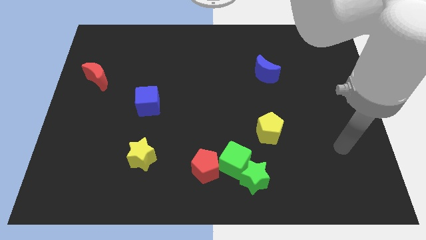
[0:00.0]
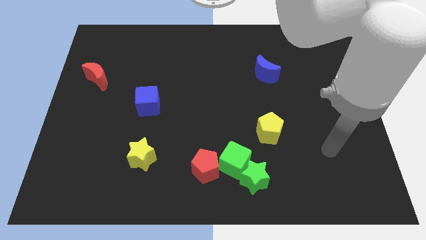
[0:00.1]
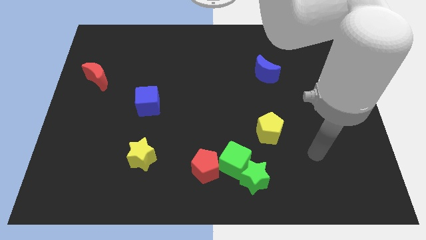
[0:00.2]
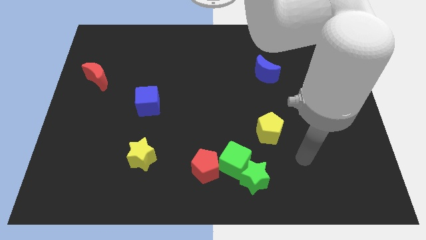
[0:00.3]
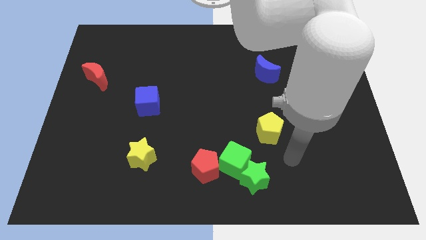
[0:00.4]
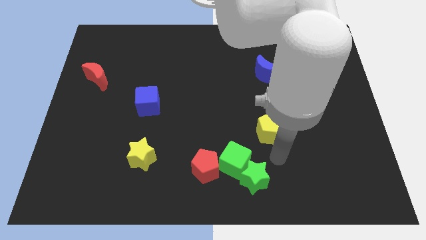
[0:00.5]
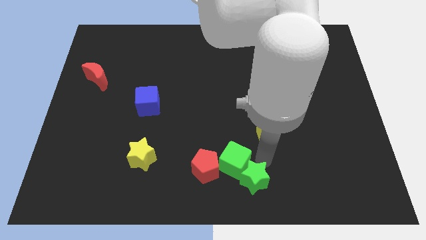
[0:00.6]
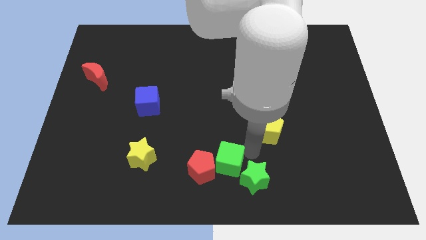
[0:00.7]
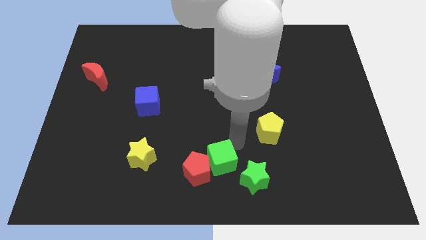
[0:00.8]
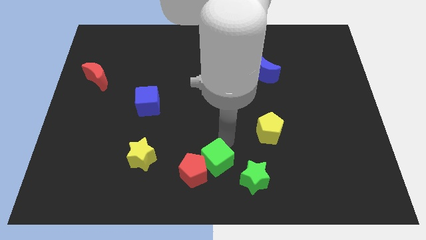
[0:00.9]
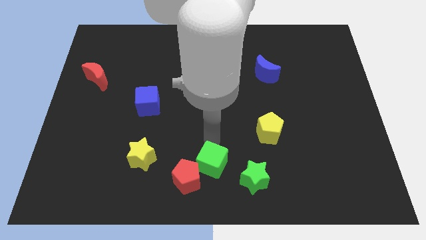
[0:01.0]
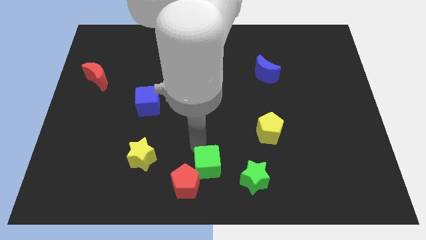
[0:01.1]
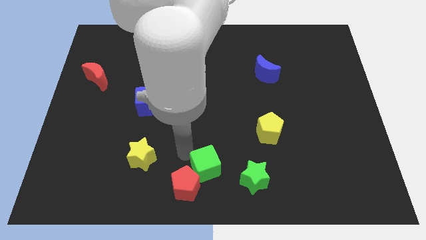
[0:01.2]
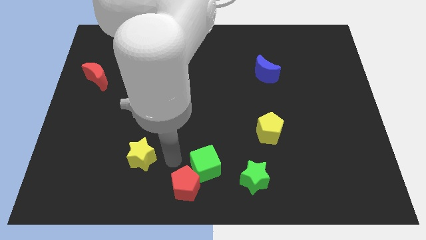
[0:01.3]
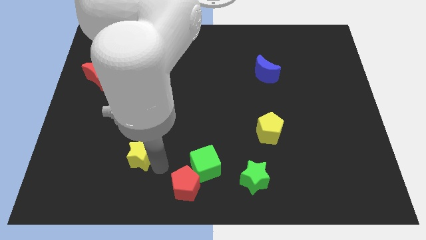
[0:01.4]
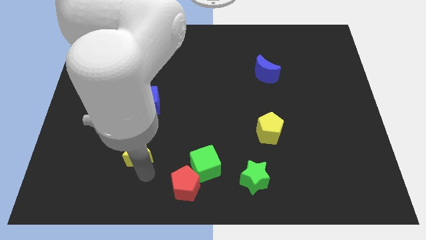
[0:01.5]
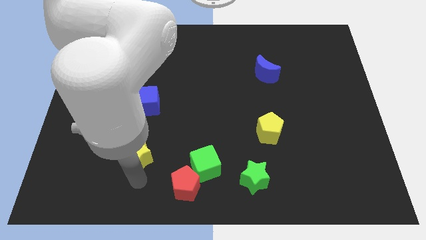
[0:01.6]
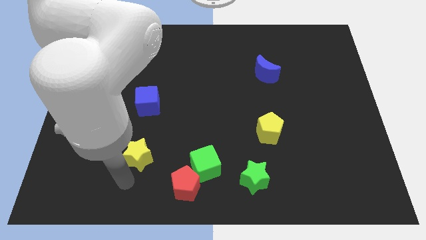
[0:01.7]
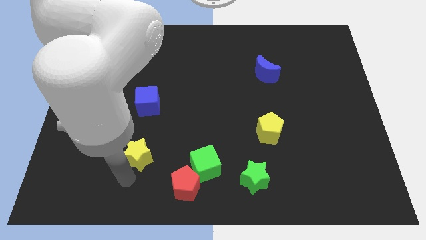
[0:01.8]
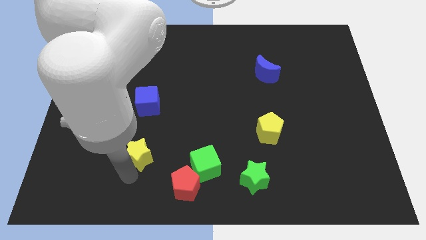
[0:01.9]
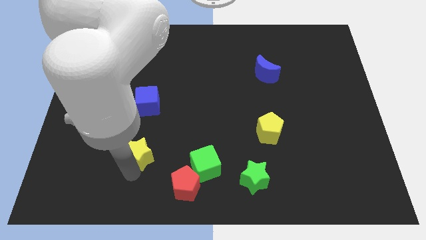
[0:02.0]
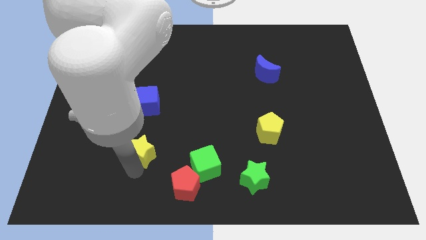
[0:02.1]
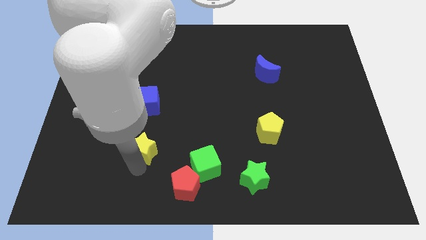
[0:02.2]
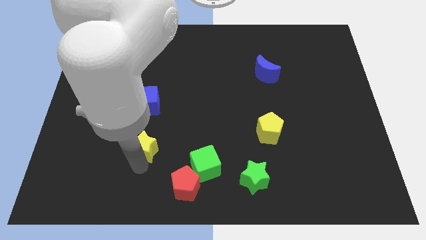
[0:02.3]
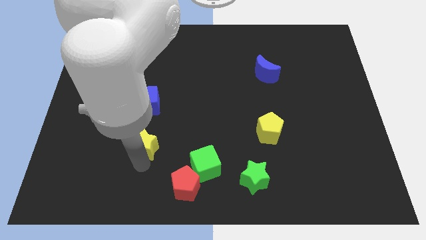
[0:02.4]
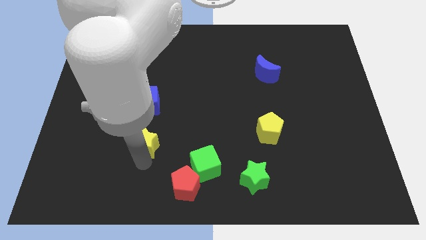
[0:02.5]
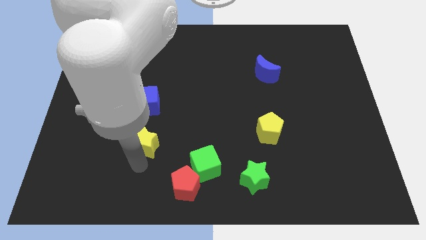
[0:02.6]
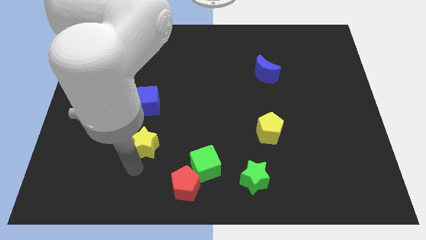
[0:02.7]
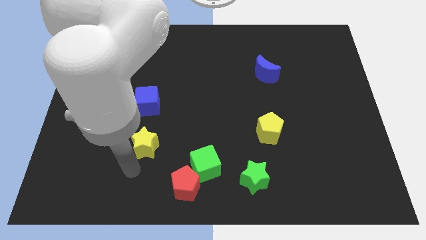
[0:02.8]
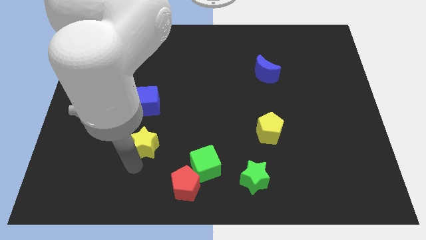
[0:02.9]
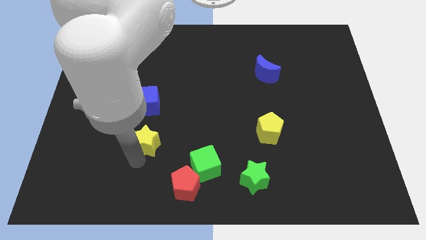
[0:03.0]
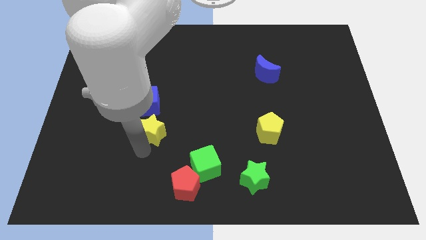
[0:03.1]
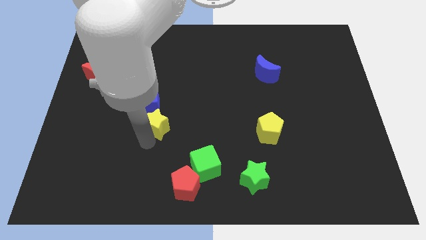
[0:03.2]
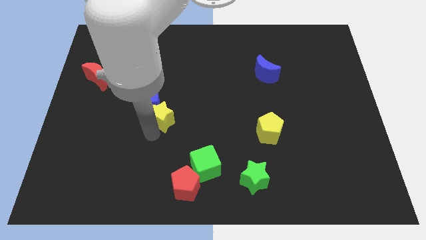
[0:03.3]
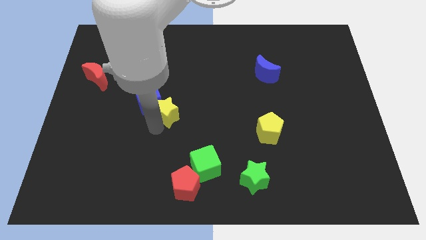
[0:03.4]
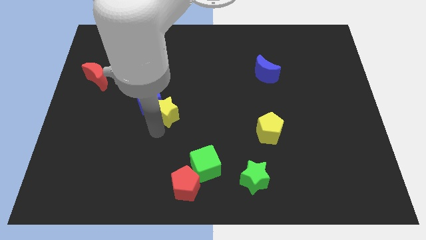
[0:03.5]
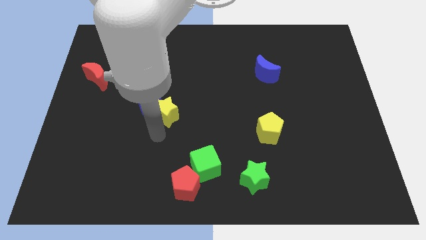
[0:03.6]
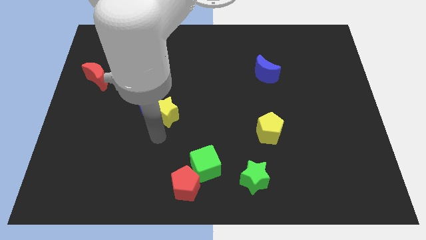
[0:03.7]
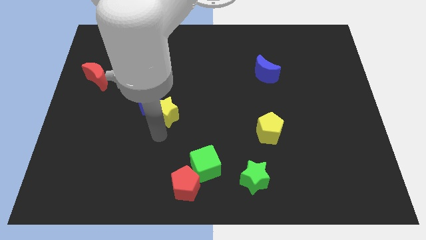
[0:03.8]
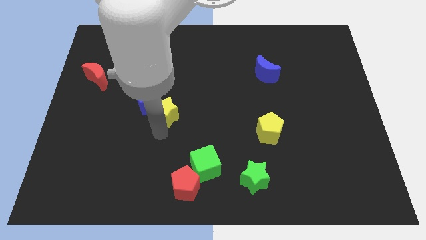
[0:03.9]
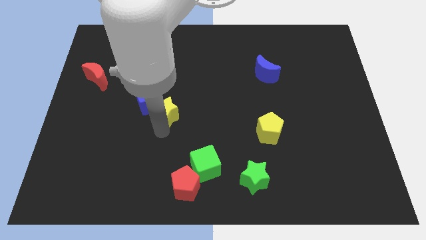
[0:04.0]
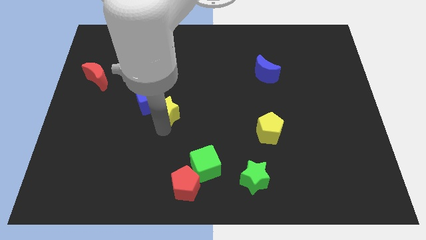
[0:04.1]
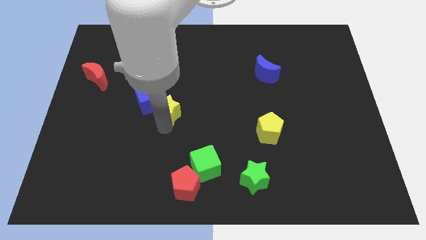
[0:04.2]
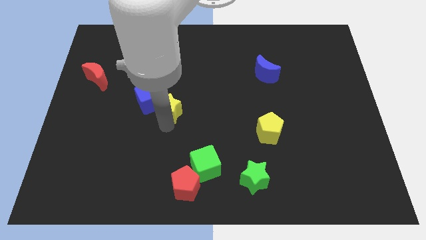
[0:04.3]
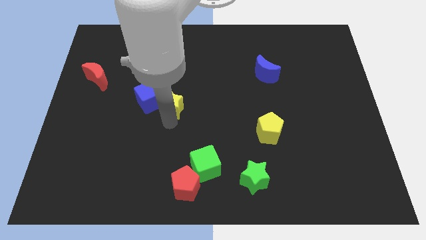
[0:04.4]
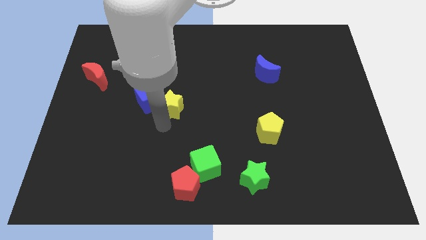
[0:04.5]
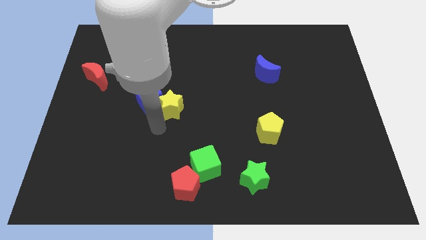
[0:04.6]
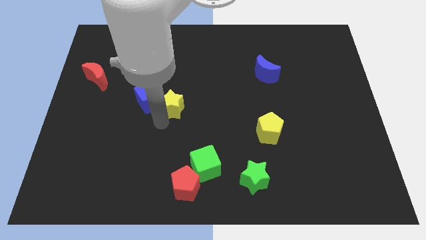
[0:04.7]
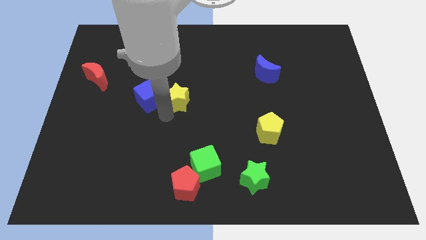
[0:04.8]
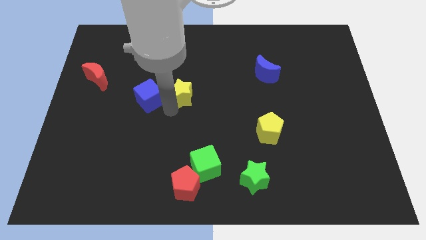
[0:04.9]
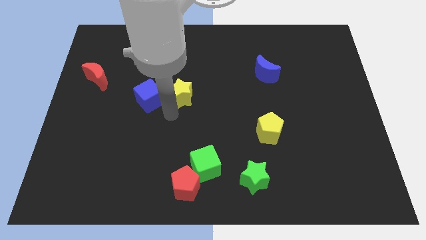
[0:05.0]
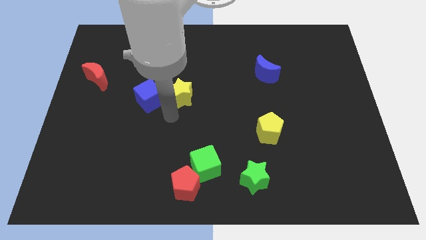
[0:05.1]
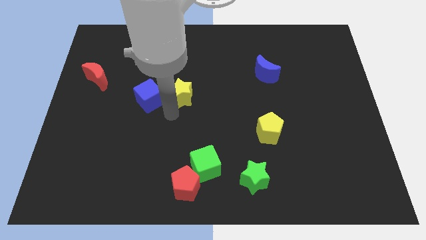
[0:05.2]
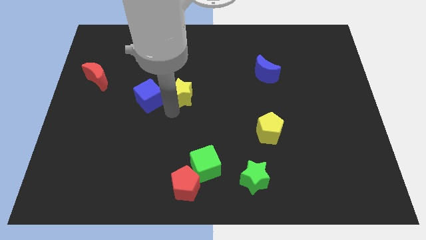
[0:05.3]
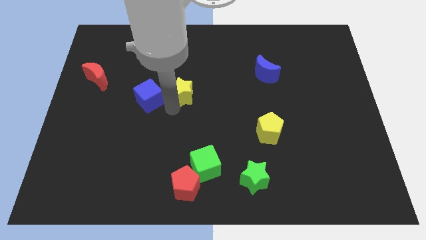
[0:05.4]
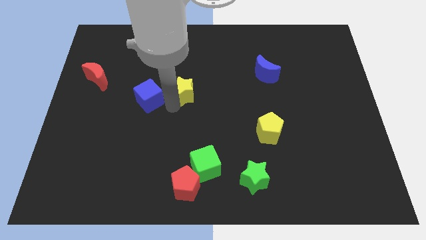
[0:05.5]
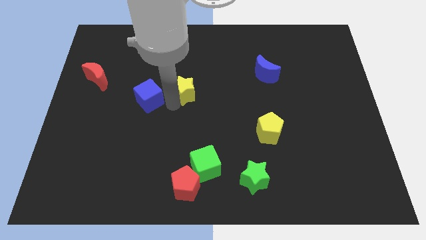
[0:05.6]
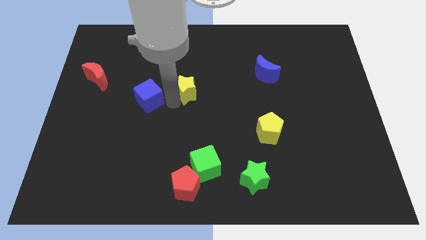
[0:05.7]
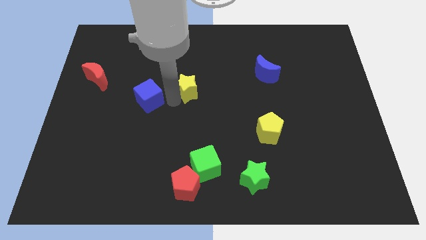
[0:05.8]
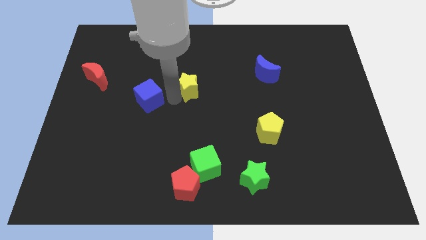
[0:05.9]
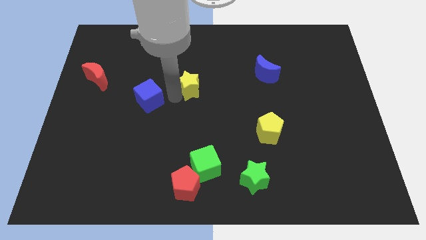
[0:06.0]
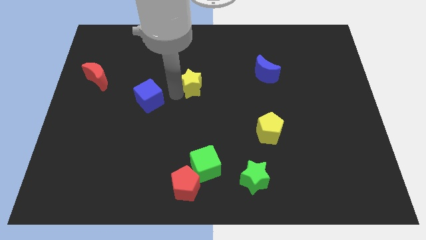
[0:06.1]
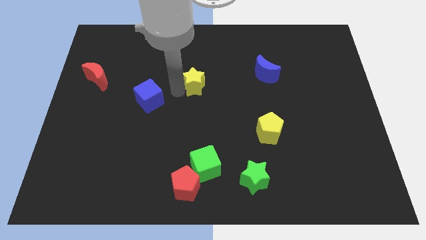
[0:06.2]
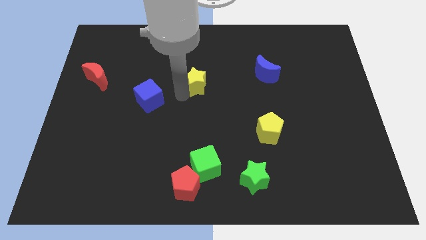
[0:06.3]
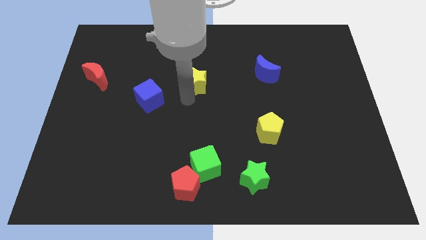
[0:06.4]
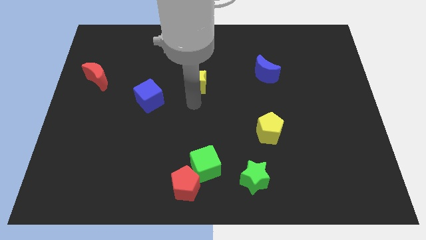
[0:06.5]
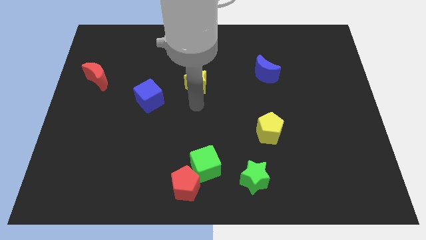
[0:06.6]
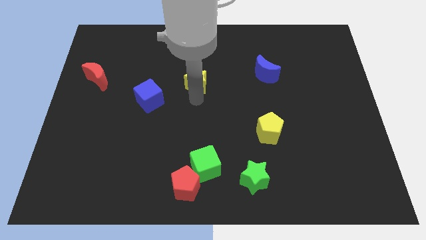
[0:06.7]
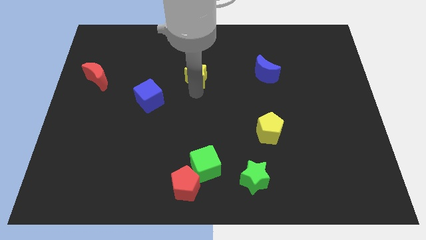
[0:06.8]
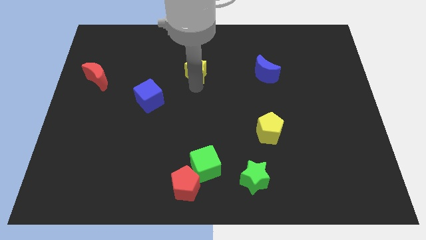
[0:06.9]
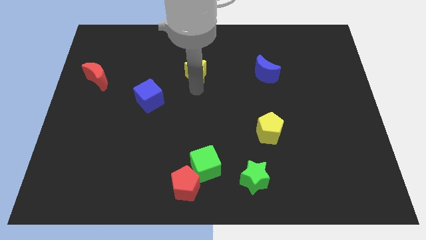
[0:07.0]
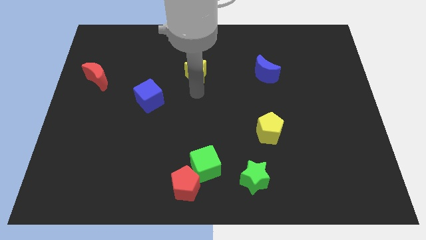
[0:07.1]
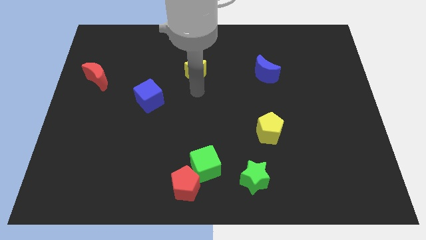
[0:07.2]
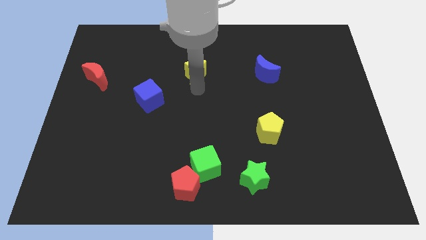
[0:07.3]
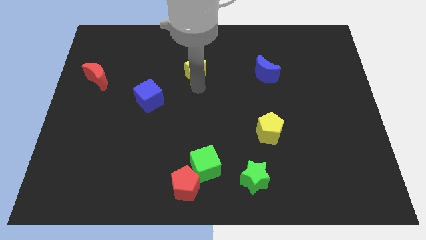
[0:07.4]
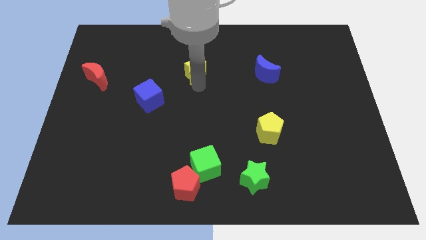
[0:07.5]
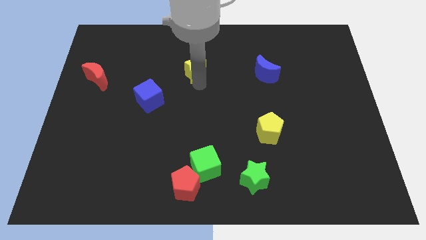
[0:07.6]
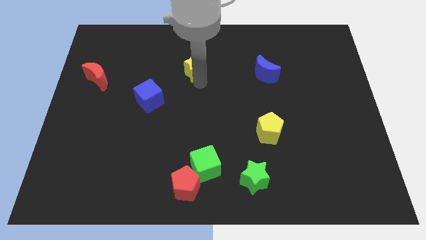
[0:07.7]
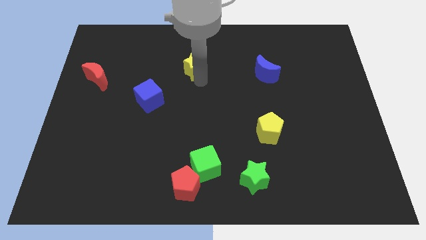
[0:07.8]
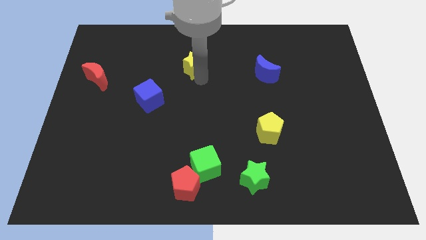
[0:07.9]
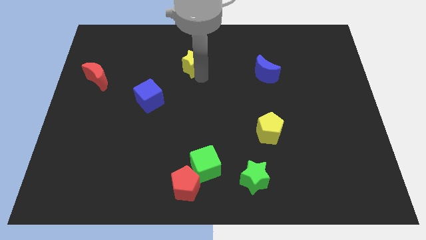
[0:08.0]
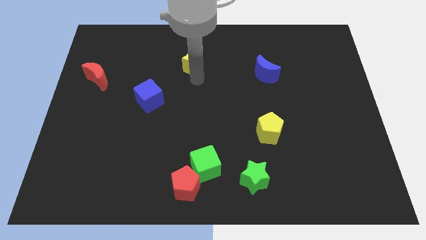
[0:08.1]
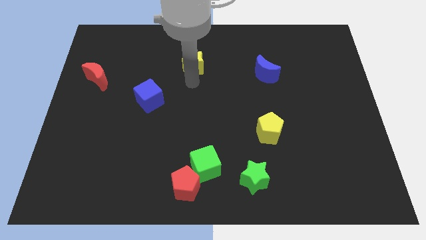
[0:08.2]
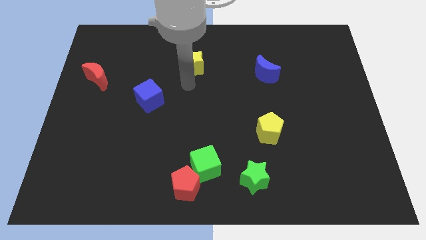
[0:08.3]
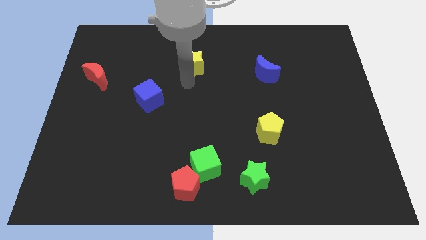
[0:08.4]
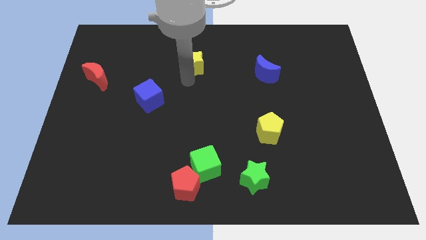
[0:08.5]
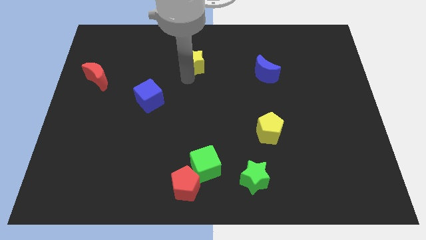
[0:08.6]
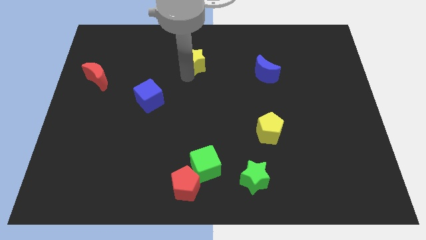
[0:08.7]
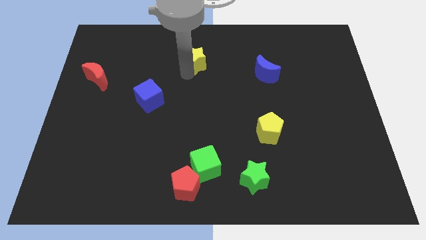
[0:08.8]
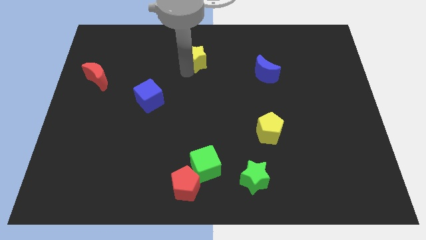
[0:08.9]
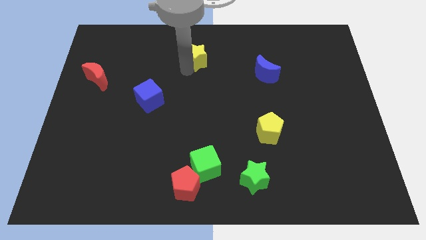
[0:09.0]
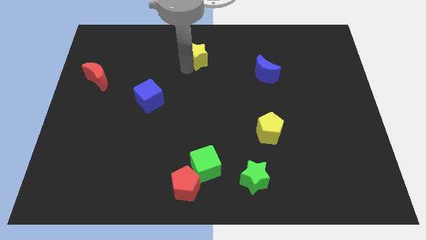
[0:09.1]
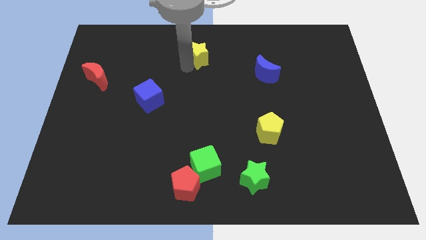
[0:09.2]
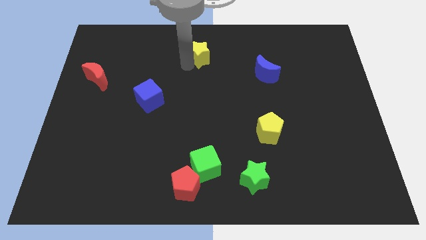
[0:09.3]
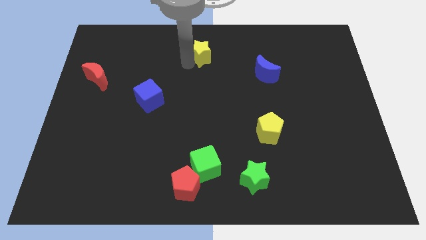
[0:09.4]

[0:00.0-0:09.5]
move the yellow star to the top
